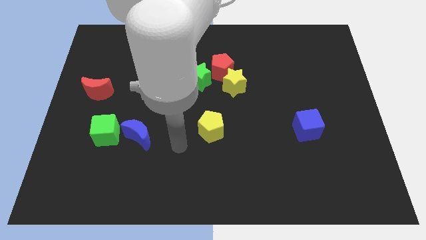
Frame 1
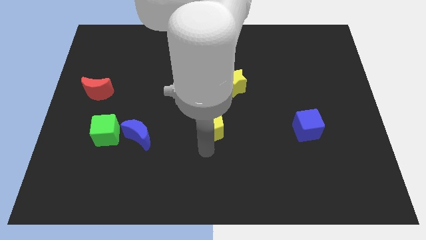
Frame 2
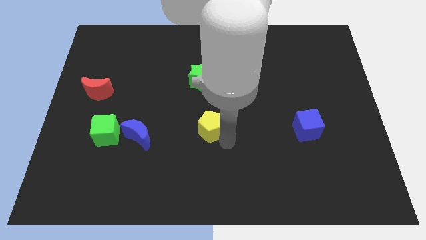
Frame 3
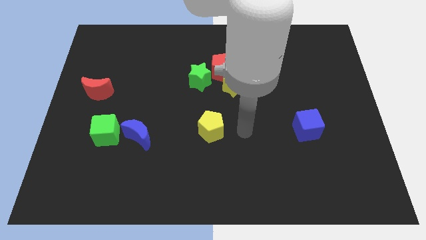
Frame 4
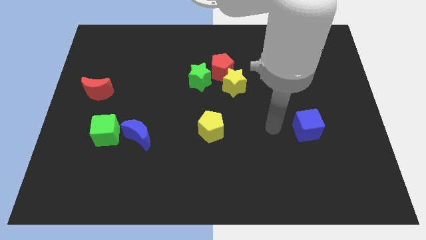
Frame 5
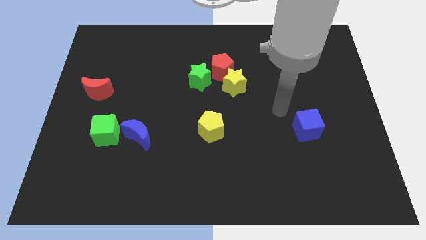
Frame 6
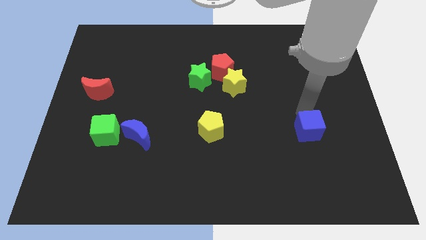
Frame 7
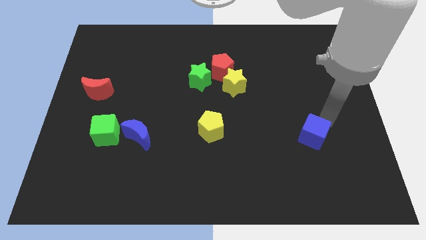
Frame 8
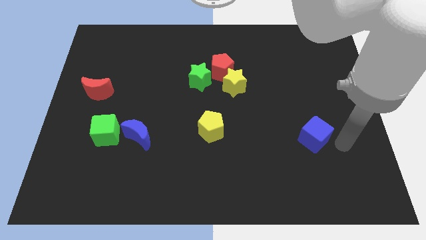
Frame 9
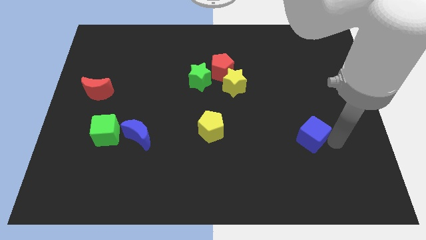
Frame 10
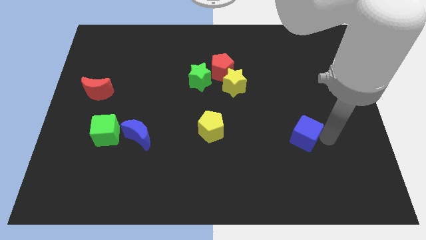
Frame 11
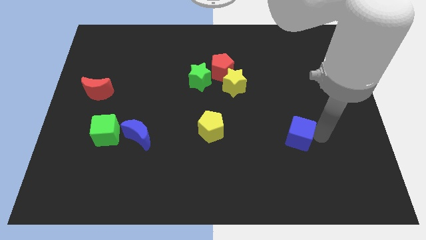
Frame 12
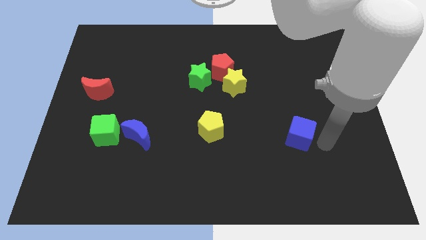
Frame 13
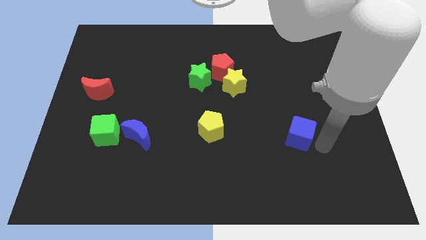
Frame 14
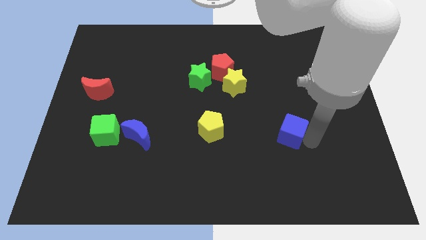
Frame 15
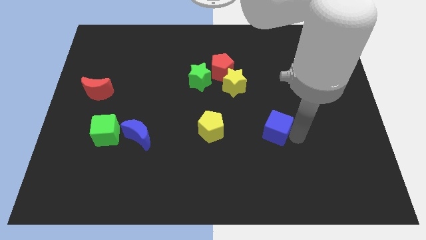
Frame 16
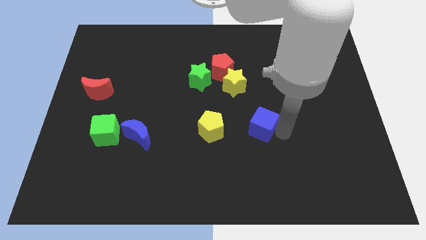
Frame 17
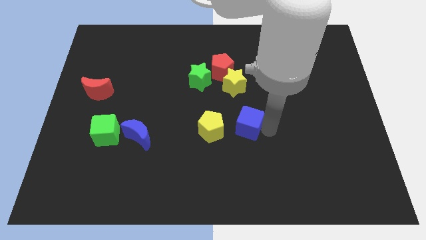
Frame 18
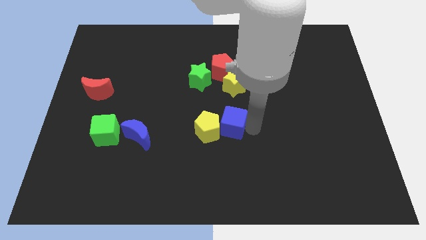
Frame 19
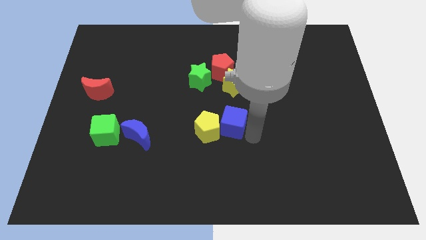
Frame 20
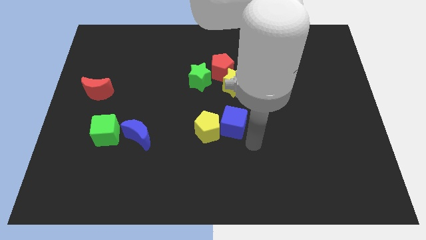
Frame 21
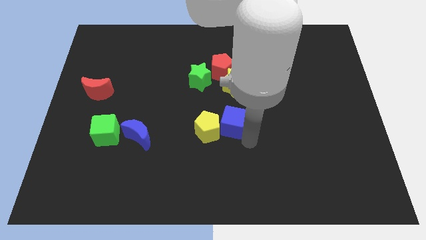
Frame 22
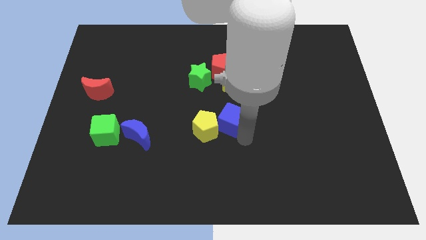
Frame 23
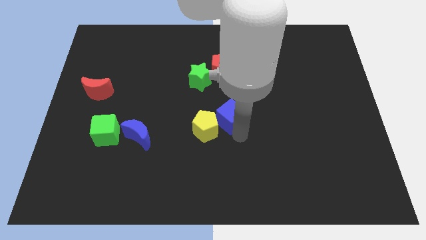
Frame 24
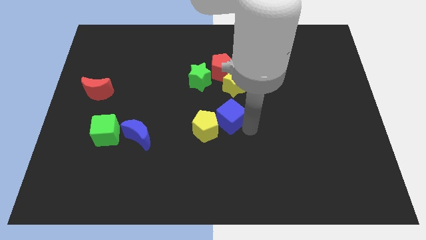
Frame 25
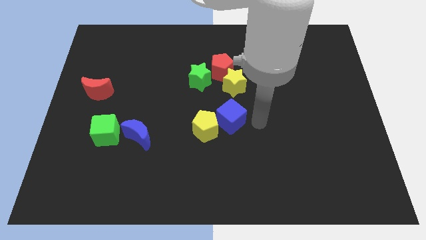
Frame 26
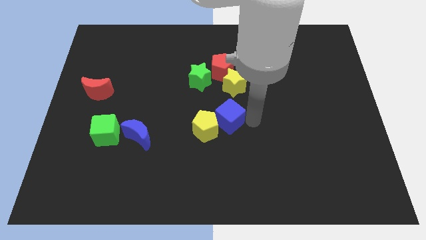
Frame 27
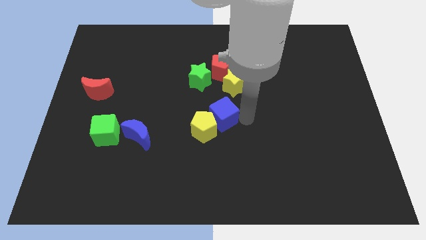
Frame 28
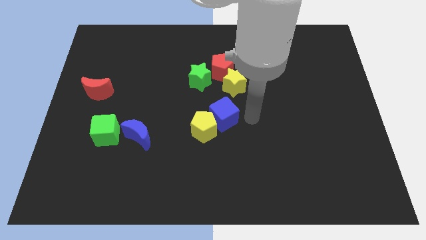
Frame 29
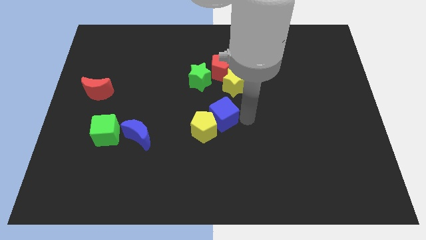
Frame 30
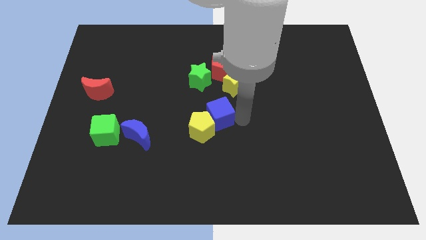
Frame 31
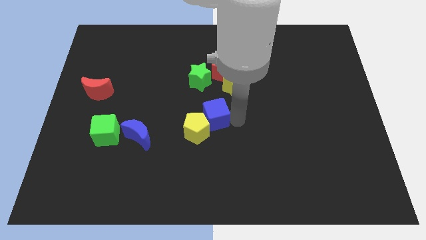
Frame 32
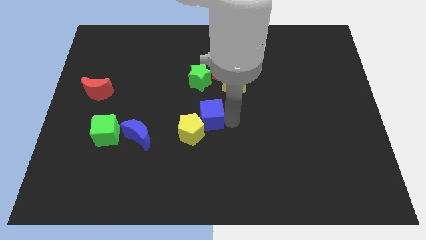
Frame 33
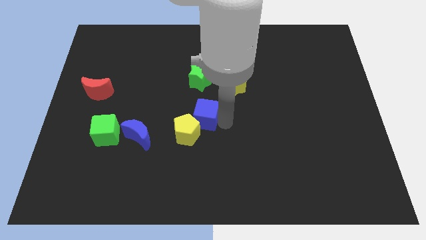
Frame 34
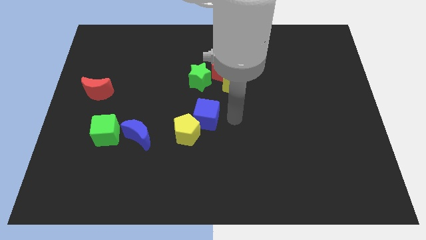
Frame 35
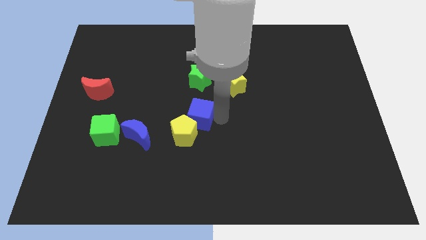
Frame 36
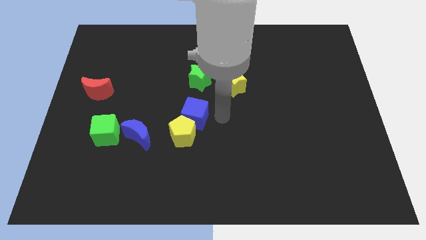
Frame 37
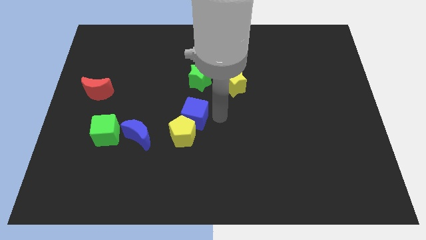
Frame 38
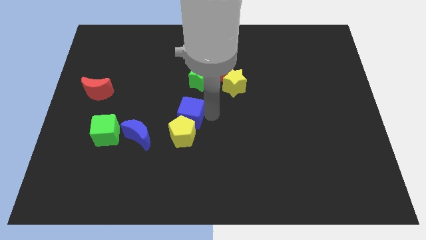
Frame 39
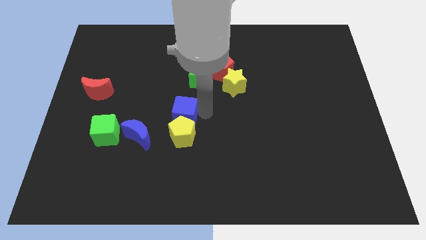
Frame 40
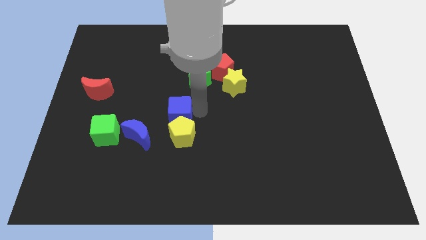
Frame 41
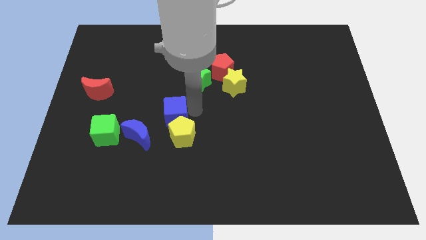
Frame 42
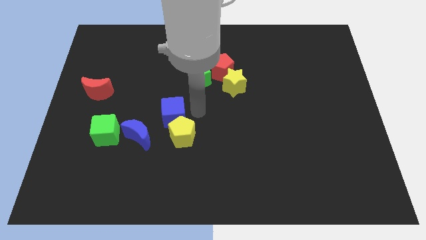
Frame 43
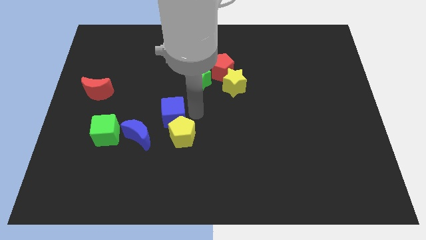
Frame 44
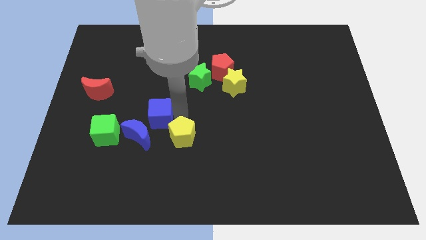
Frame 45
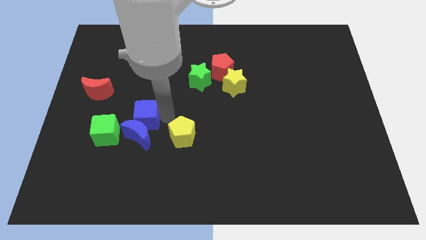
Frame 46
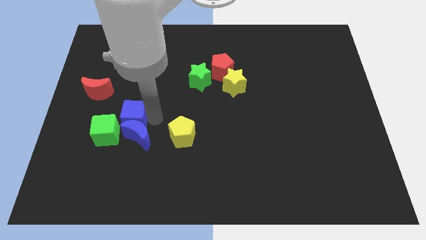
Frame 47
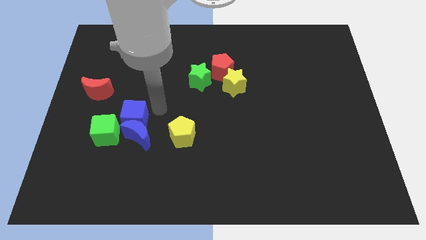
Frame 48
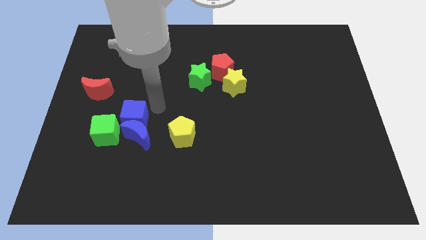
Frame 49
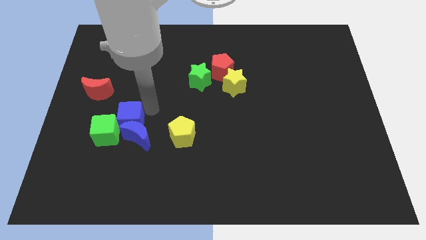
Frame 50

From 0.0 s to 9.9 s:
push the blue cube to the green cube

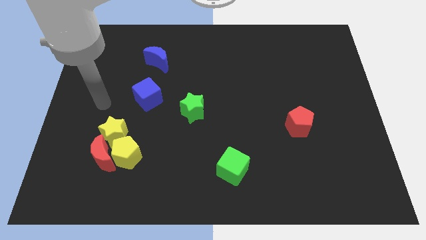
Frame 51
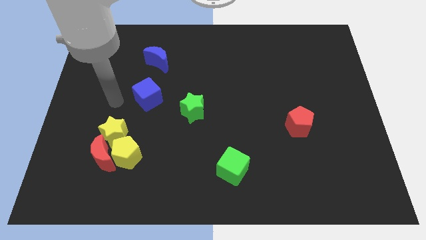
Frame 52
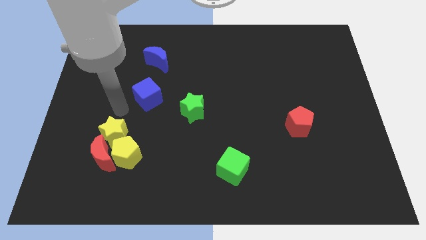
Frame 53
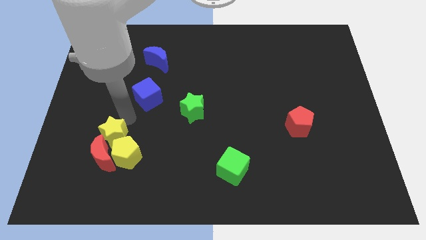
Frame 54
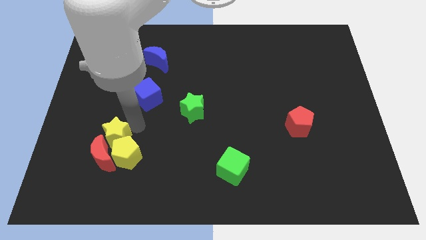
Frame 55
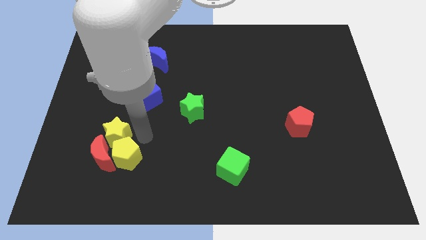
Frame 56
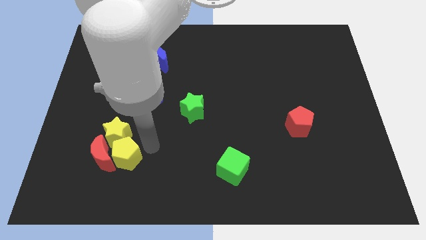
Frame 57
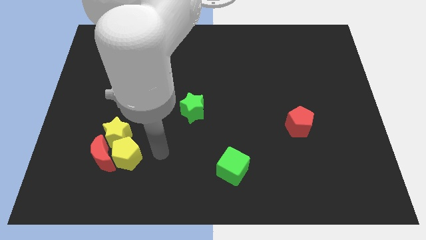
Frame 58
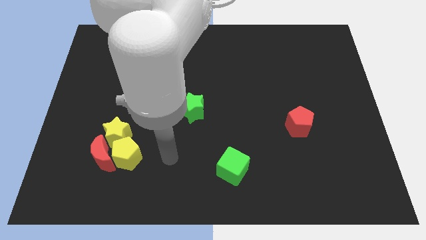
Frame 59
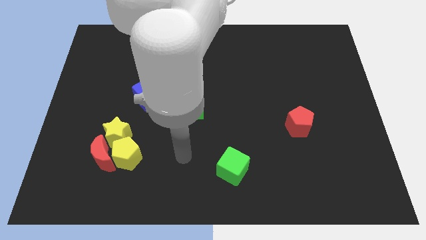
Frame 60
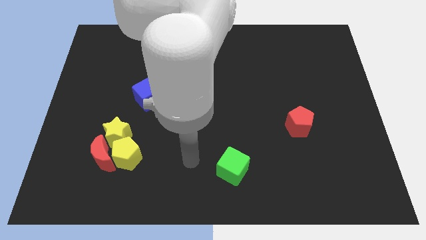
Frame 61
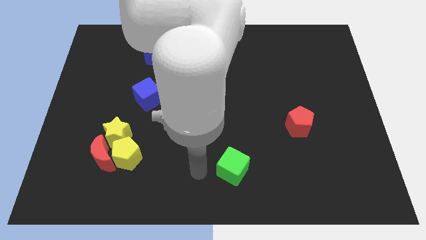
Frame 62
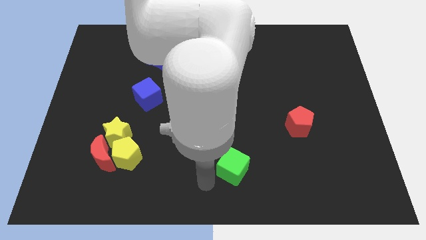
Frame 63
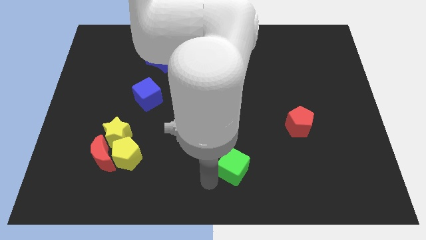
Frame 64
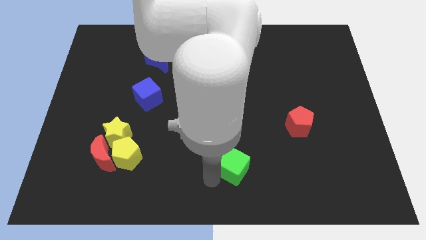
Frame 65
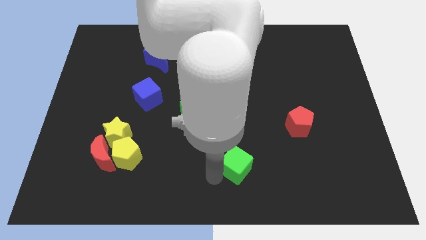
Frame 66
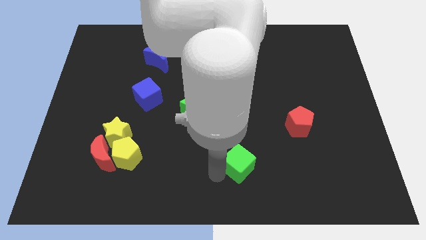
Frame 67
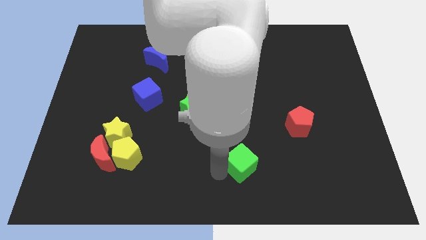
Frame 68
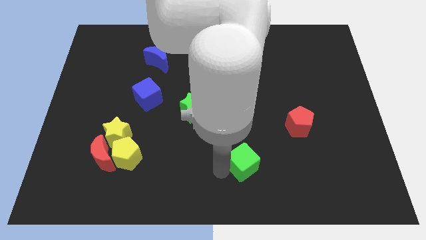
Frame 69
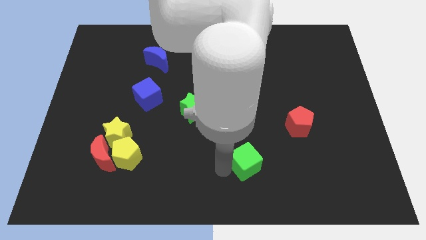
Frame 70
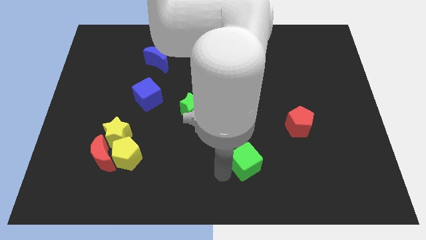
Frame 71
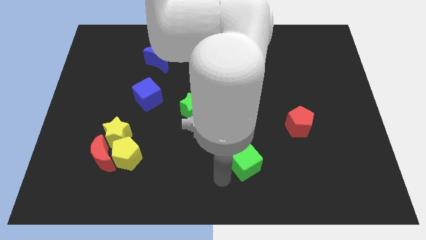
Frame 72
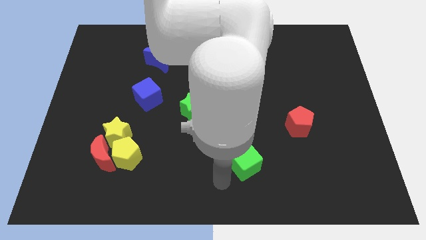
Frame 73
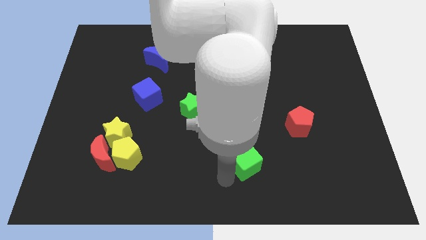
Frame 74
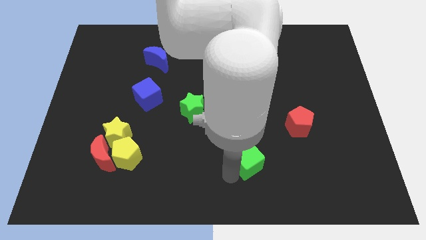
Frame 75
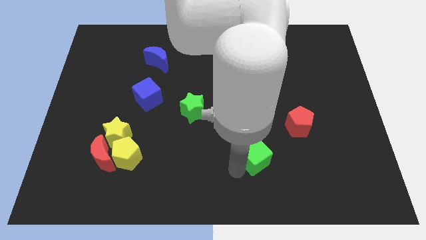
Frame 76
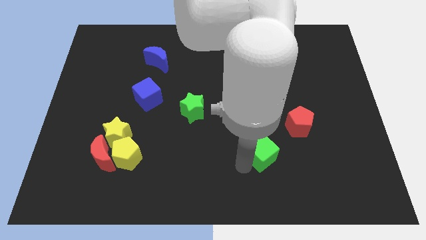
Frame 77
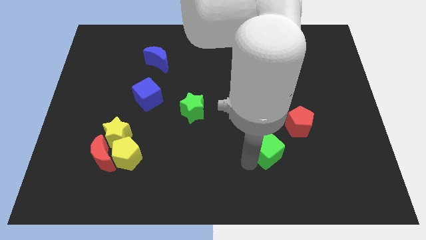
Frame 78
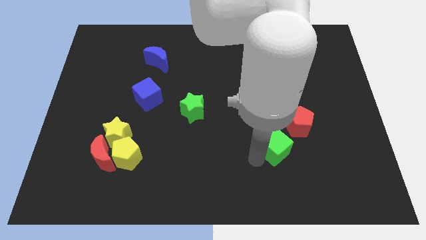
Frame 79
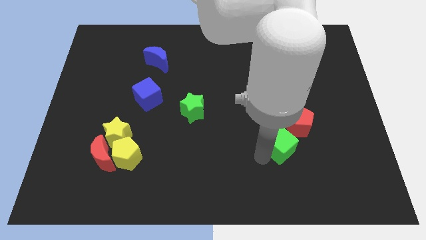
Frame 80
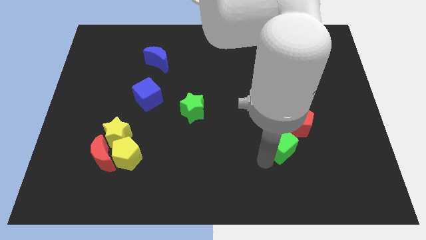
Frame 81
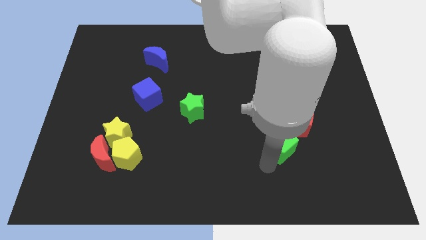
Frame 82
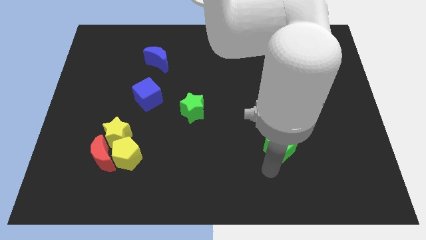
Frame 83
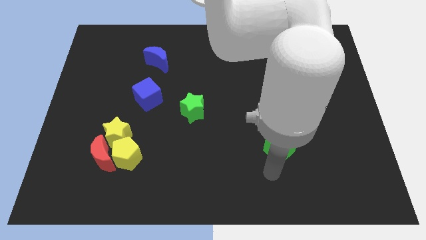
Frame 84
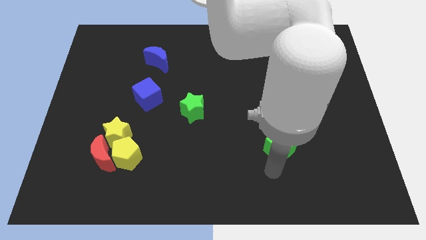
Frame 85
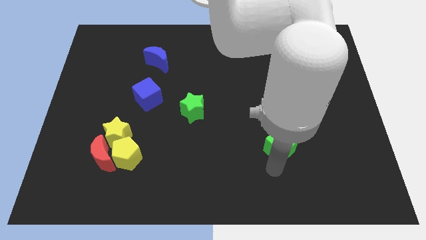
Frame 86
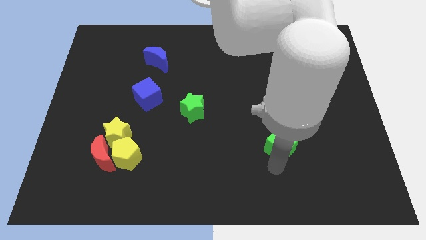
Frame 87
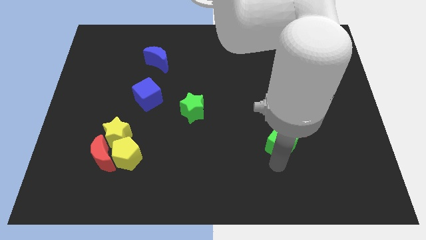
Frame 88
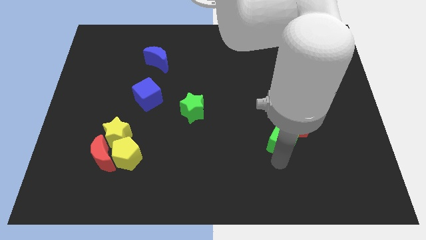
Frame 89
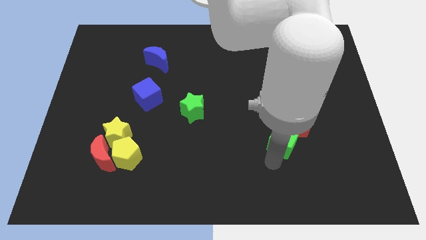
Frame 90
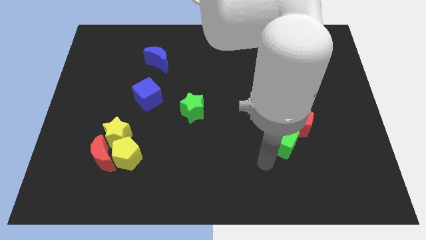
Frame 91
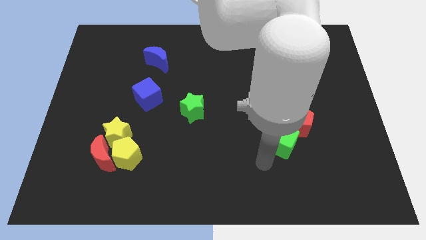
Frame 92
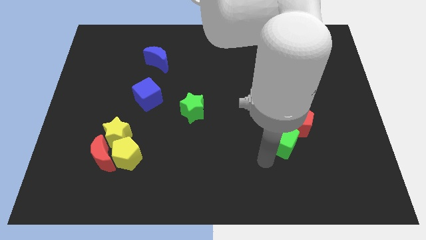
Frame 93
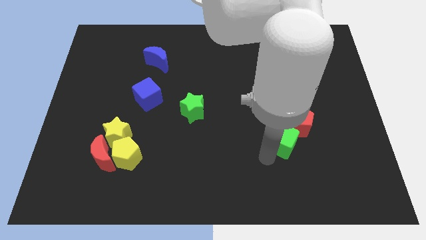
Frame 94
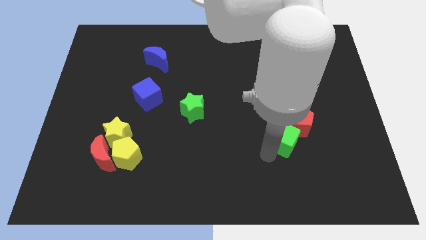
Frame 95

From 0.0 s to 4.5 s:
slide the green cube close to the red pentagon
